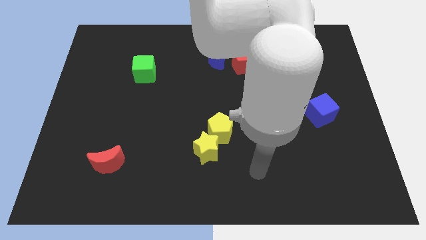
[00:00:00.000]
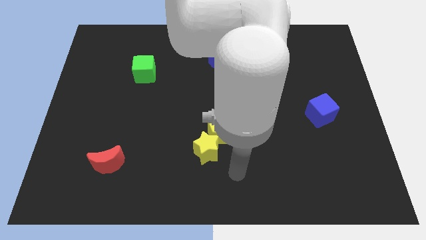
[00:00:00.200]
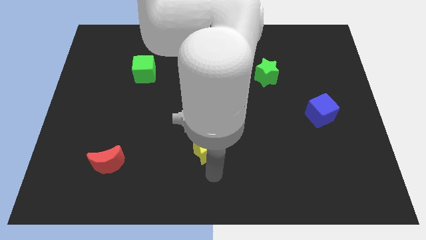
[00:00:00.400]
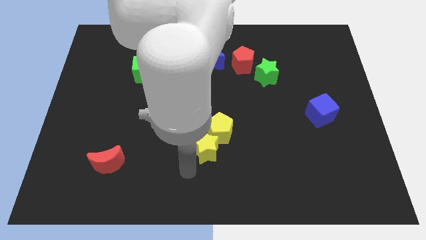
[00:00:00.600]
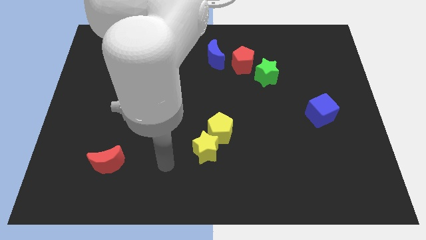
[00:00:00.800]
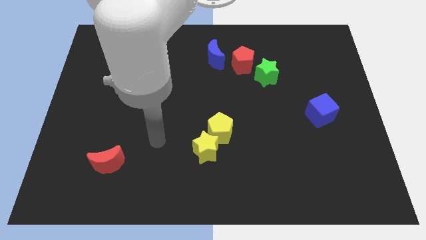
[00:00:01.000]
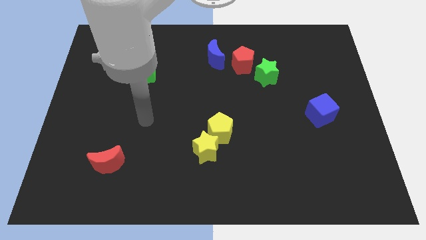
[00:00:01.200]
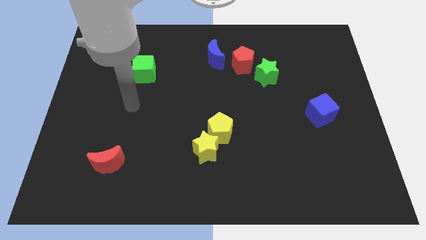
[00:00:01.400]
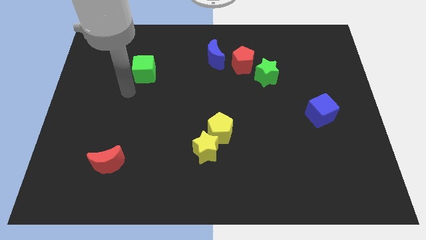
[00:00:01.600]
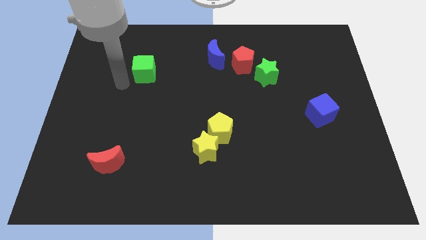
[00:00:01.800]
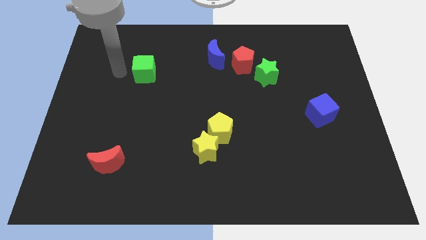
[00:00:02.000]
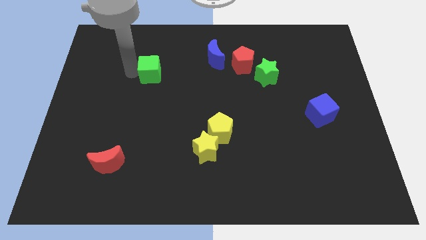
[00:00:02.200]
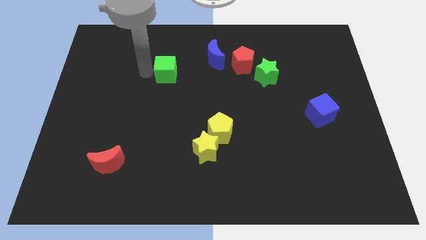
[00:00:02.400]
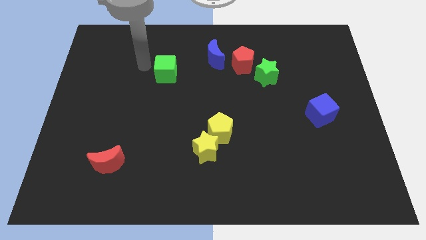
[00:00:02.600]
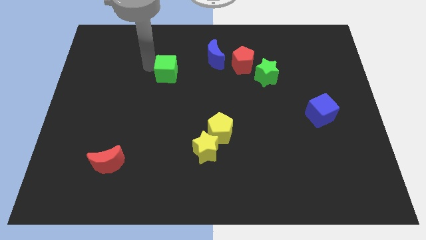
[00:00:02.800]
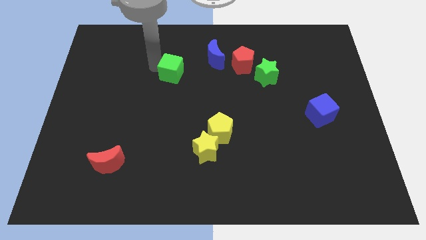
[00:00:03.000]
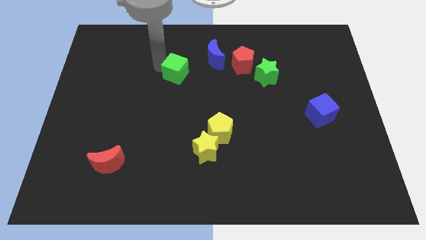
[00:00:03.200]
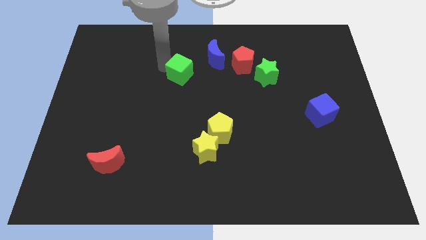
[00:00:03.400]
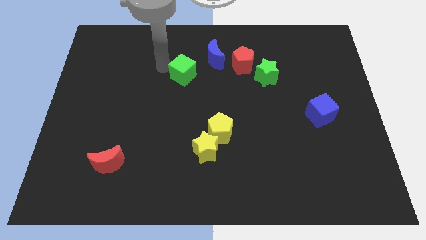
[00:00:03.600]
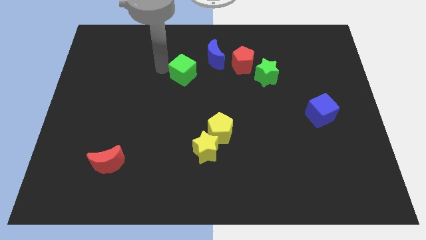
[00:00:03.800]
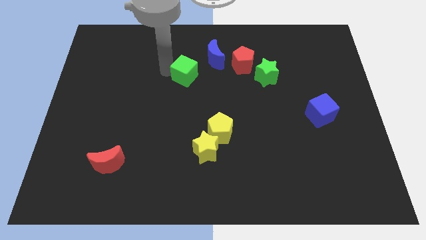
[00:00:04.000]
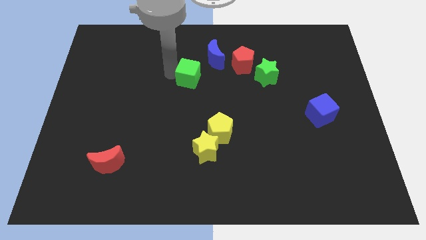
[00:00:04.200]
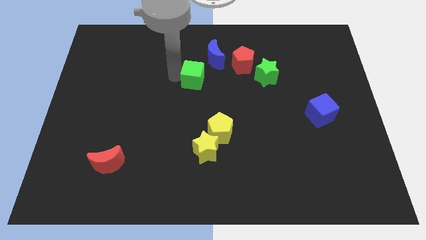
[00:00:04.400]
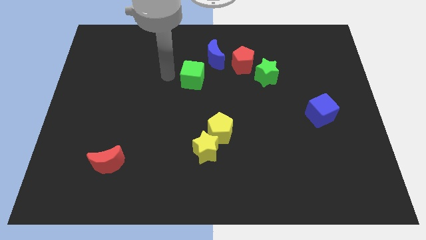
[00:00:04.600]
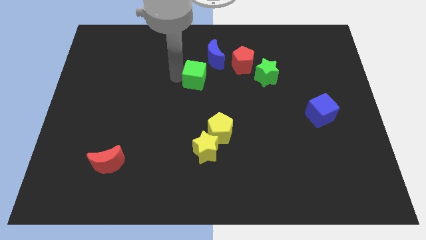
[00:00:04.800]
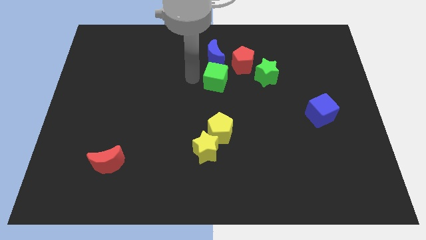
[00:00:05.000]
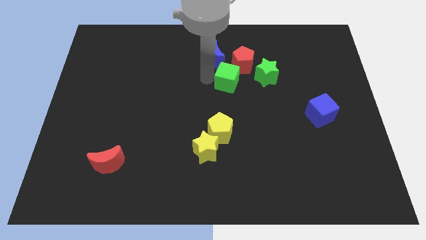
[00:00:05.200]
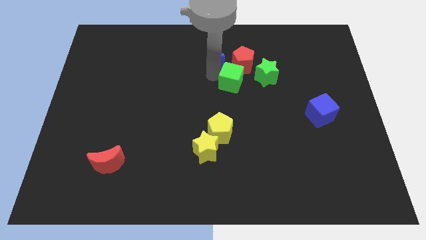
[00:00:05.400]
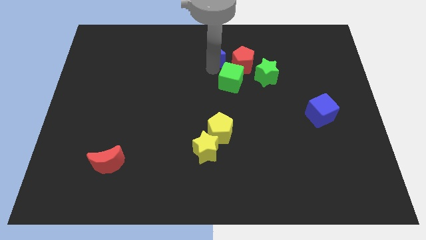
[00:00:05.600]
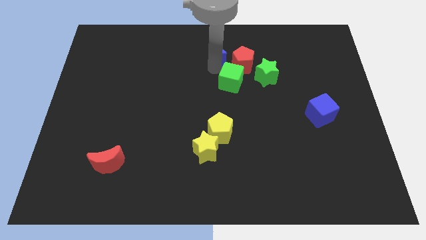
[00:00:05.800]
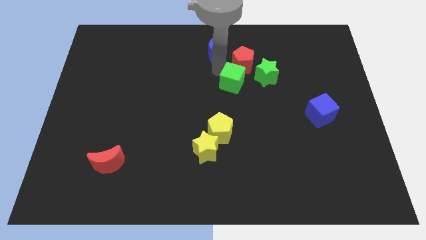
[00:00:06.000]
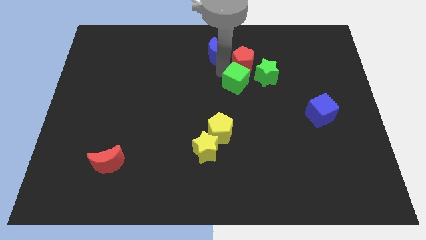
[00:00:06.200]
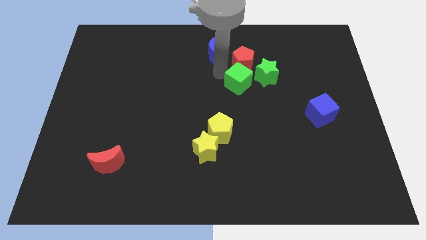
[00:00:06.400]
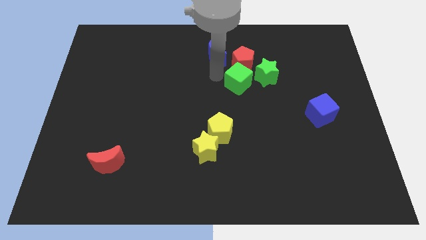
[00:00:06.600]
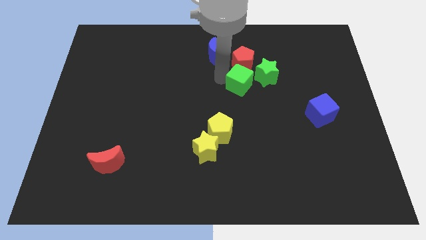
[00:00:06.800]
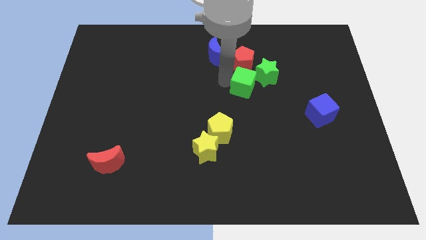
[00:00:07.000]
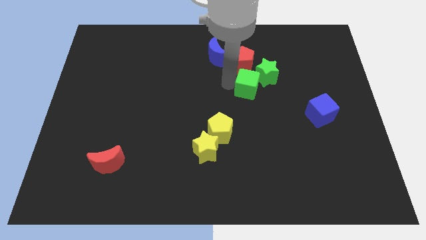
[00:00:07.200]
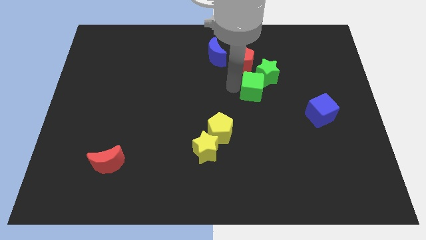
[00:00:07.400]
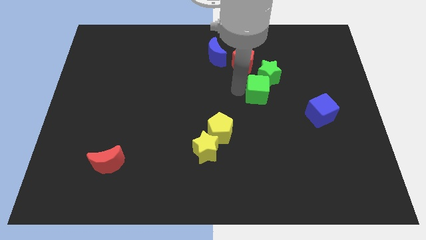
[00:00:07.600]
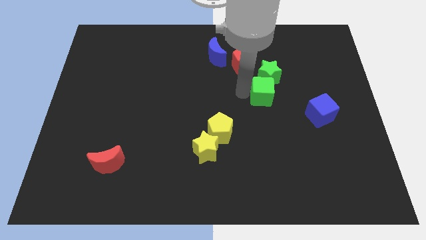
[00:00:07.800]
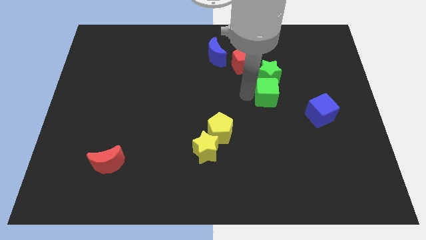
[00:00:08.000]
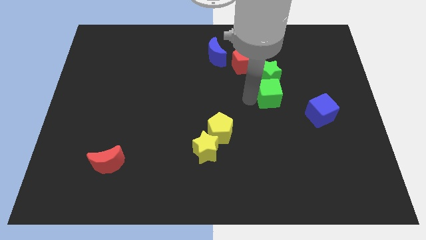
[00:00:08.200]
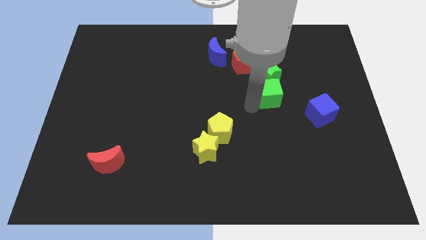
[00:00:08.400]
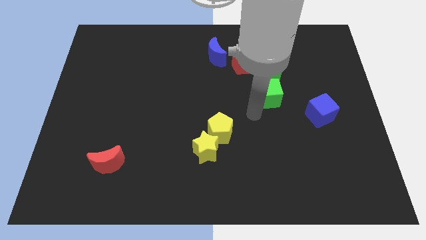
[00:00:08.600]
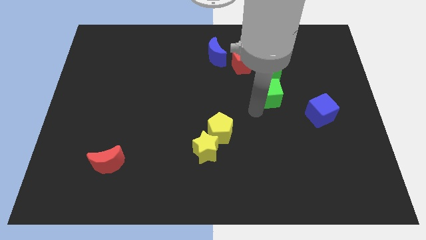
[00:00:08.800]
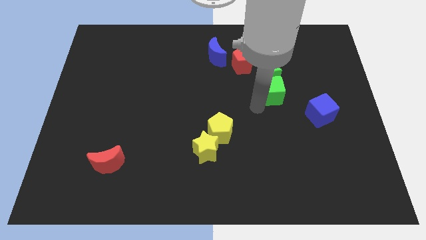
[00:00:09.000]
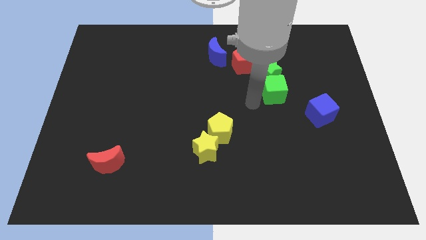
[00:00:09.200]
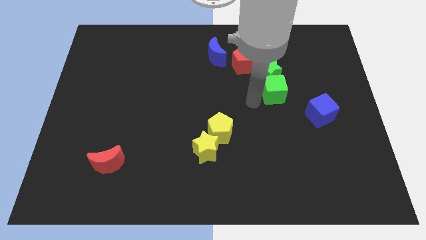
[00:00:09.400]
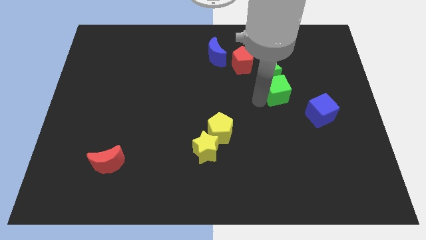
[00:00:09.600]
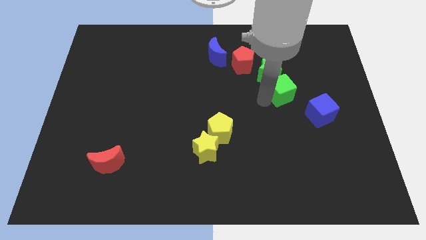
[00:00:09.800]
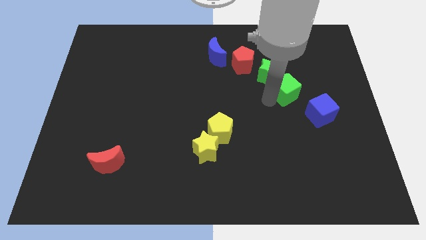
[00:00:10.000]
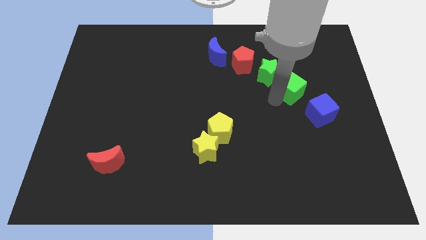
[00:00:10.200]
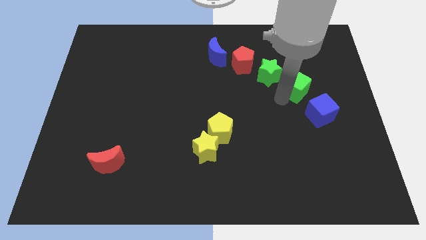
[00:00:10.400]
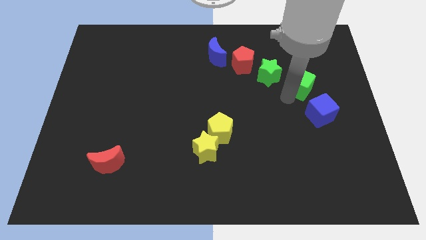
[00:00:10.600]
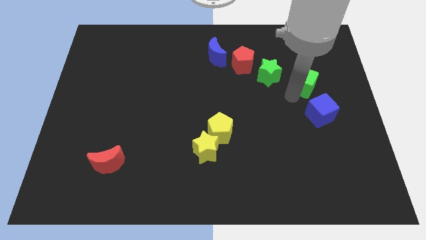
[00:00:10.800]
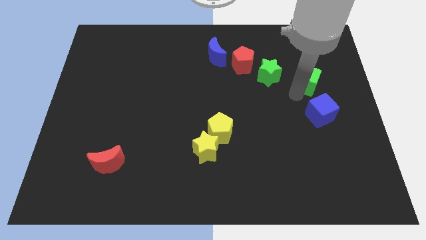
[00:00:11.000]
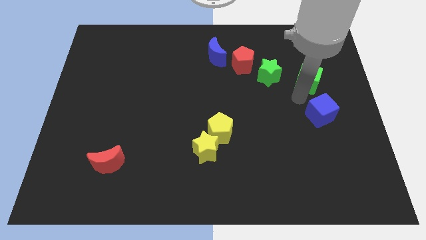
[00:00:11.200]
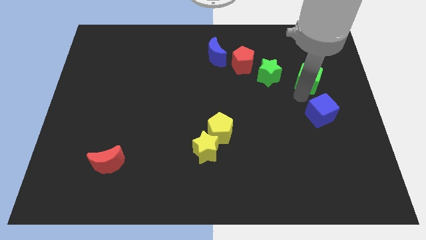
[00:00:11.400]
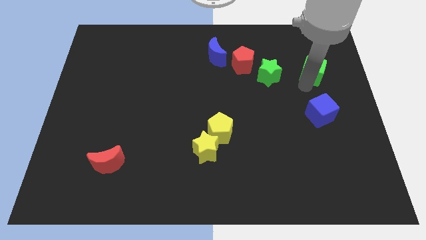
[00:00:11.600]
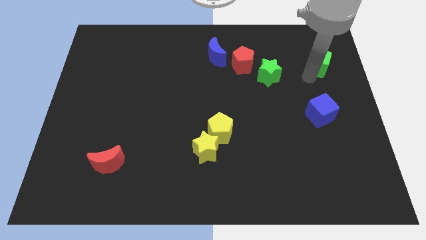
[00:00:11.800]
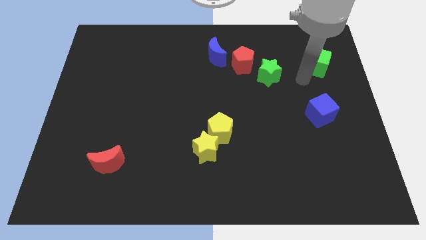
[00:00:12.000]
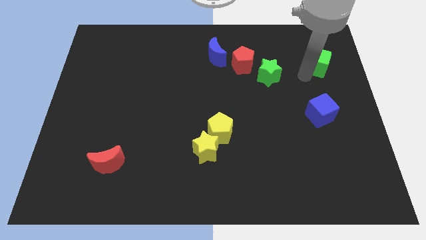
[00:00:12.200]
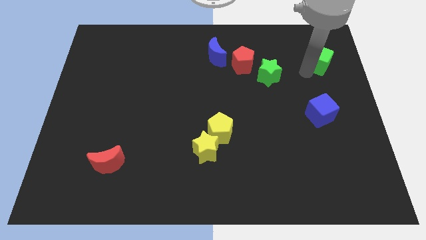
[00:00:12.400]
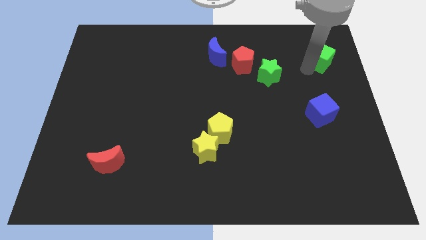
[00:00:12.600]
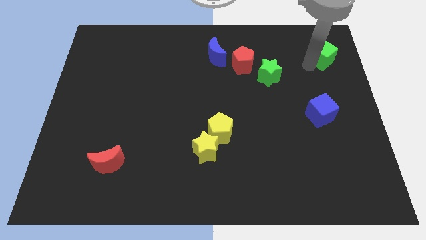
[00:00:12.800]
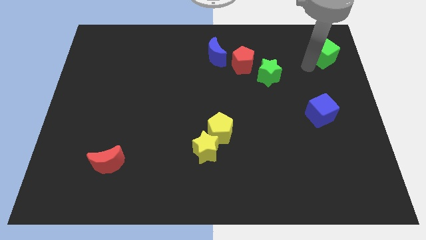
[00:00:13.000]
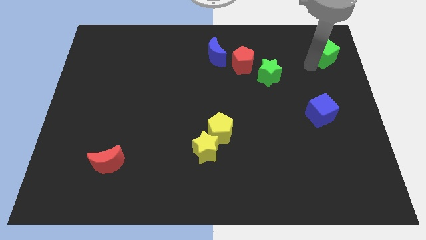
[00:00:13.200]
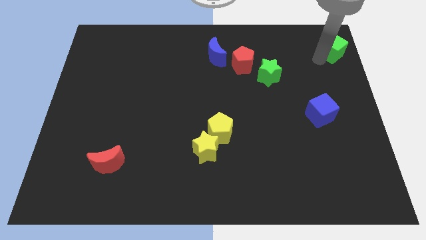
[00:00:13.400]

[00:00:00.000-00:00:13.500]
put the green cube to the top right
